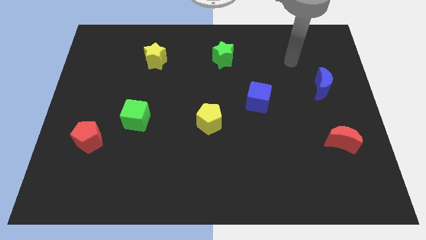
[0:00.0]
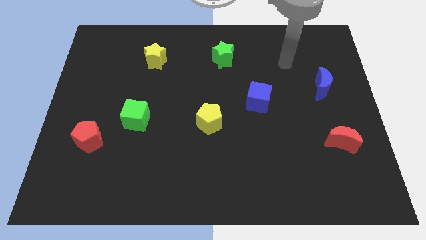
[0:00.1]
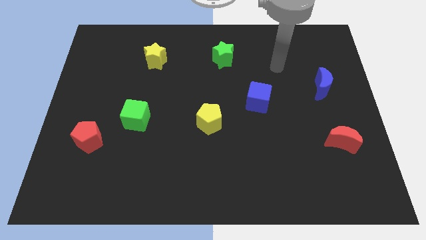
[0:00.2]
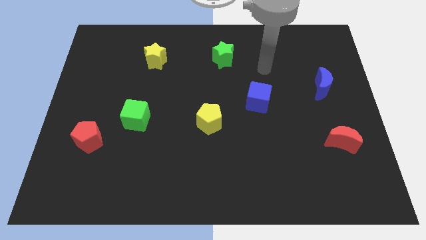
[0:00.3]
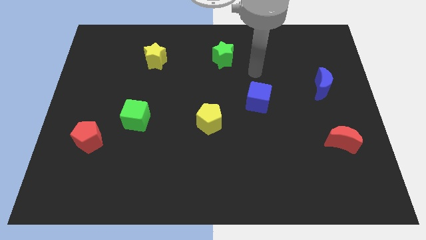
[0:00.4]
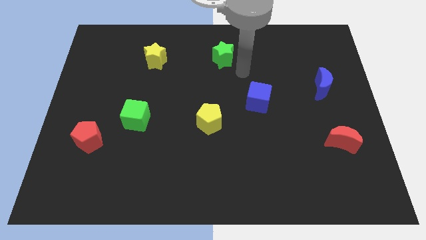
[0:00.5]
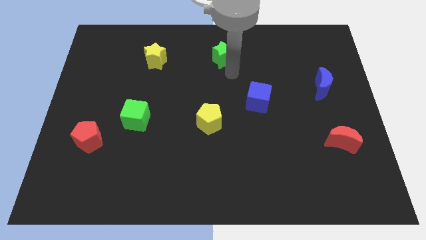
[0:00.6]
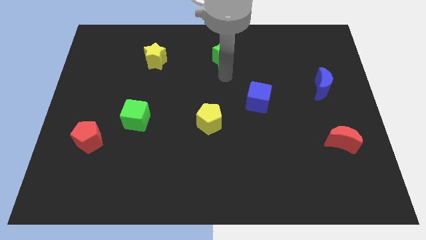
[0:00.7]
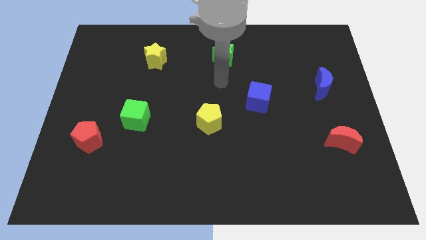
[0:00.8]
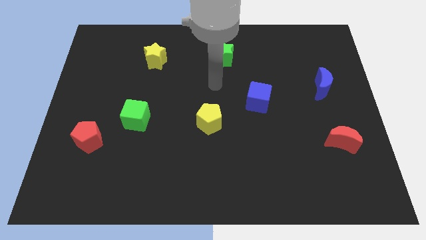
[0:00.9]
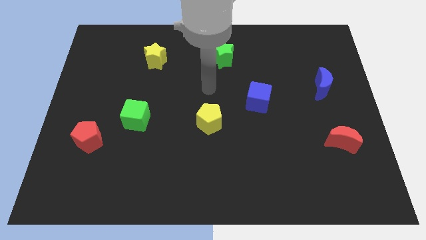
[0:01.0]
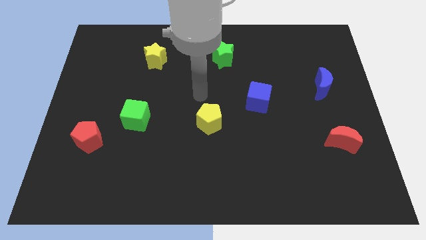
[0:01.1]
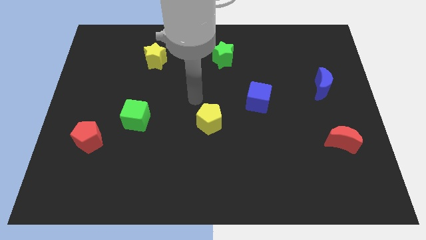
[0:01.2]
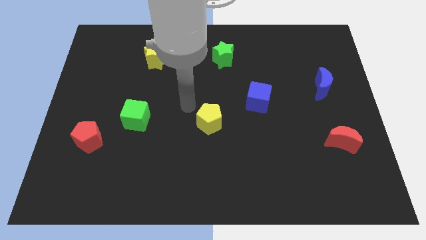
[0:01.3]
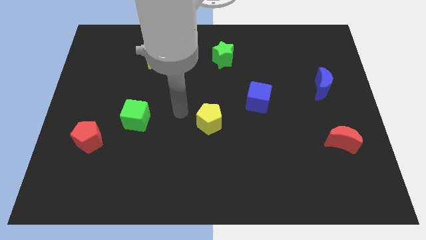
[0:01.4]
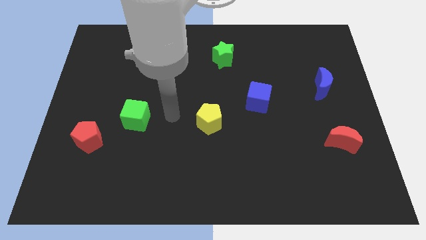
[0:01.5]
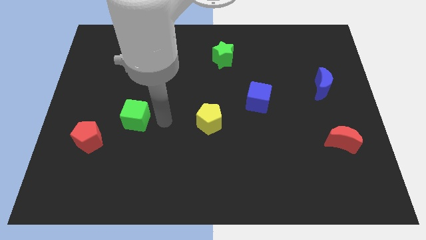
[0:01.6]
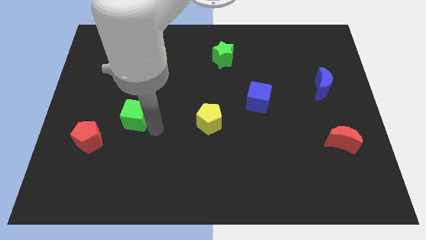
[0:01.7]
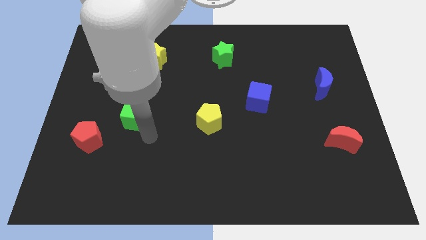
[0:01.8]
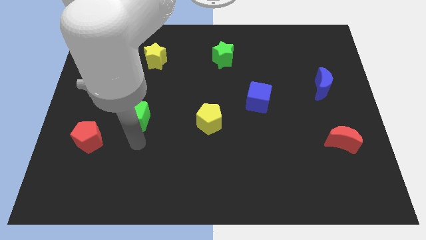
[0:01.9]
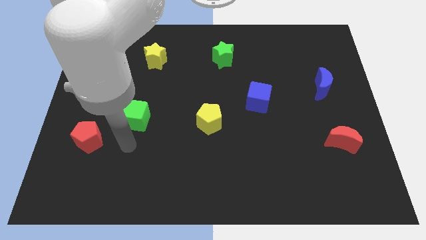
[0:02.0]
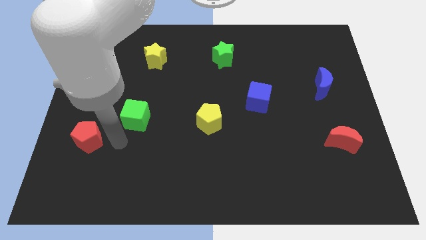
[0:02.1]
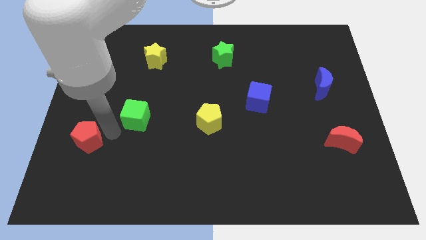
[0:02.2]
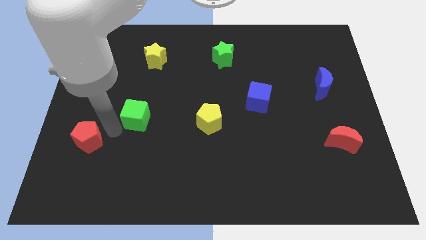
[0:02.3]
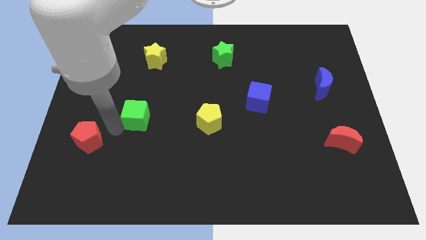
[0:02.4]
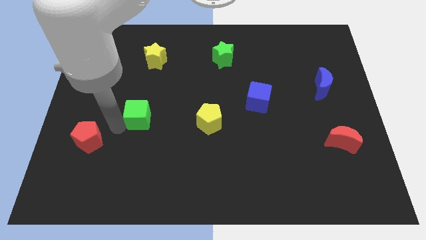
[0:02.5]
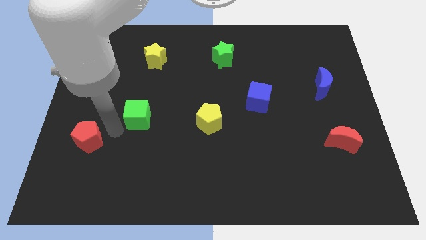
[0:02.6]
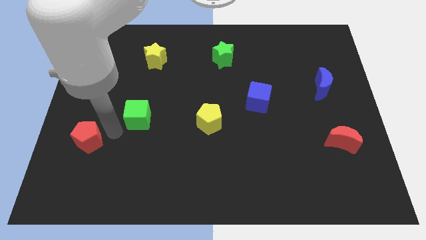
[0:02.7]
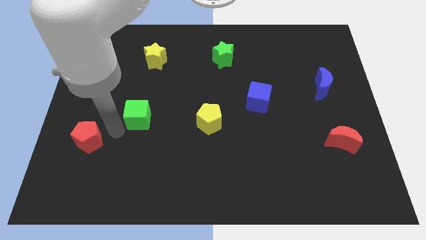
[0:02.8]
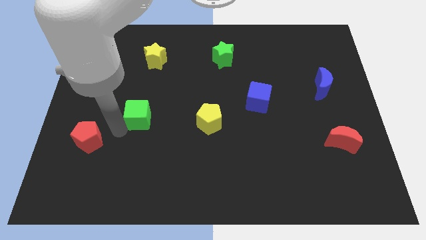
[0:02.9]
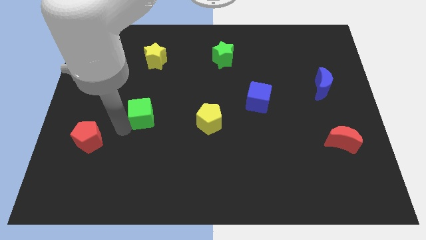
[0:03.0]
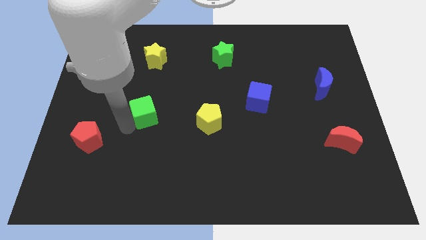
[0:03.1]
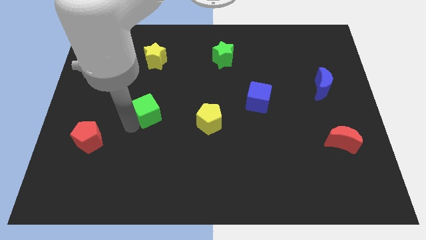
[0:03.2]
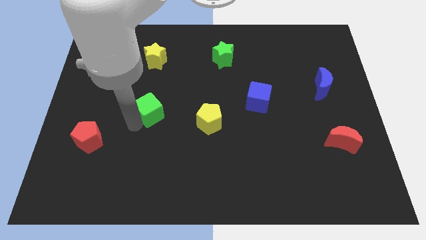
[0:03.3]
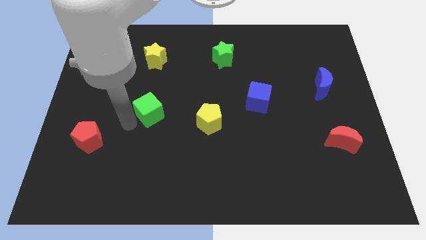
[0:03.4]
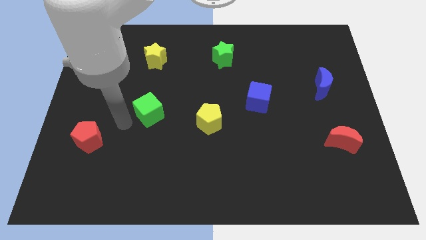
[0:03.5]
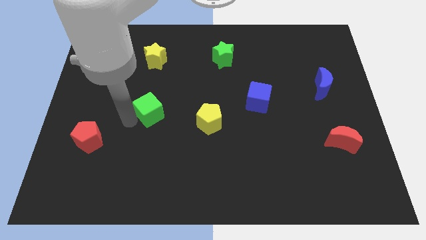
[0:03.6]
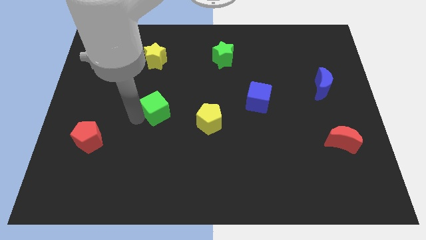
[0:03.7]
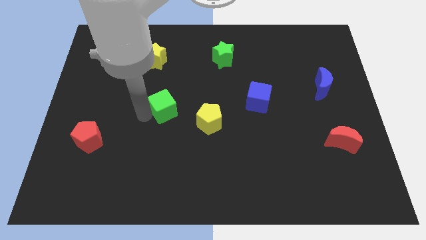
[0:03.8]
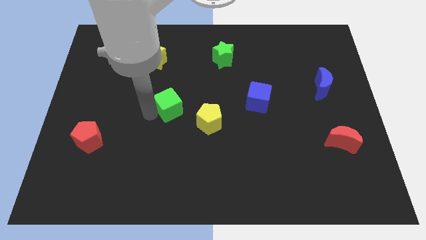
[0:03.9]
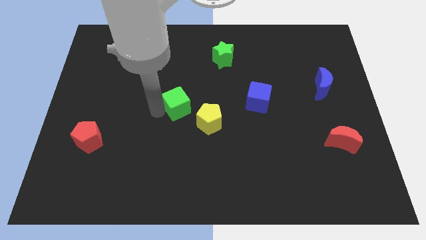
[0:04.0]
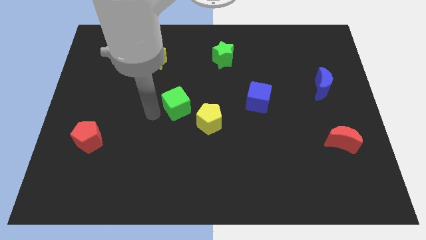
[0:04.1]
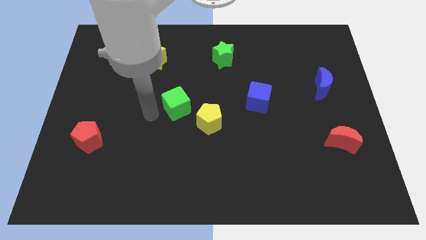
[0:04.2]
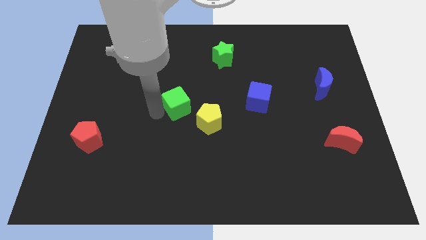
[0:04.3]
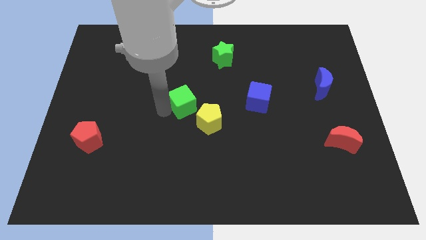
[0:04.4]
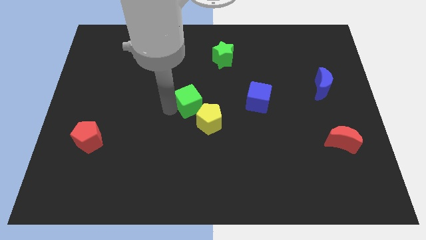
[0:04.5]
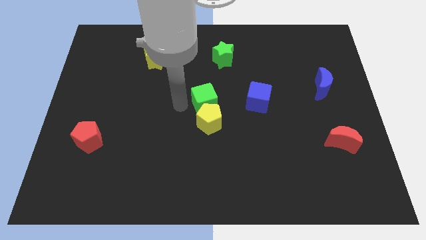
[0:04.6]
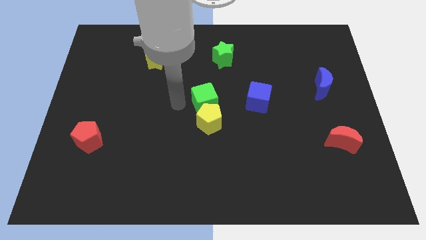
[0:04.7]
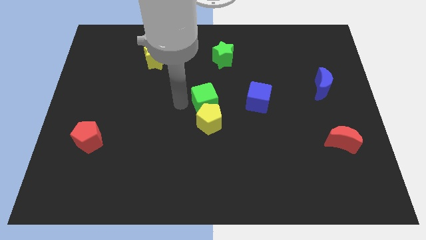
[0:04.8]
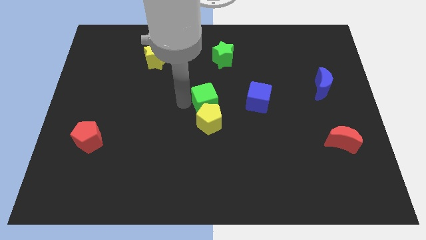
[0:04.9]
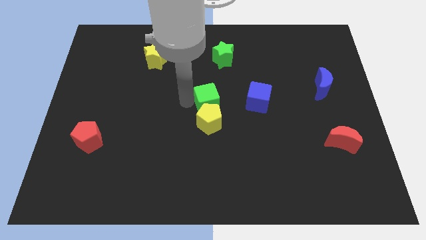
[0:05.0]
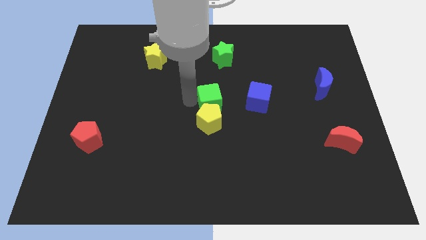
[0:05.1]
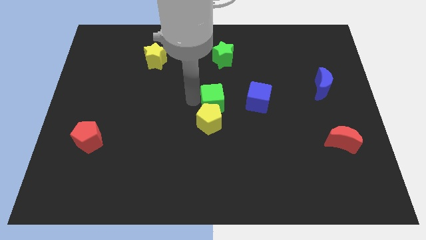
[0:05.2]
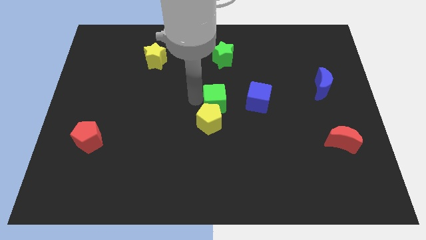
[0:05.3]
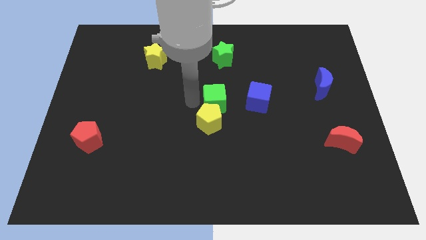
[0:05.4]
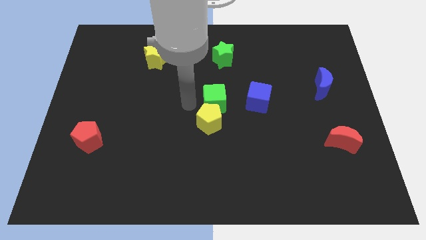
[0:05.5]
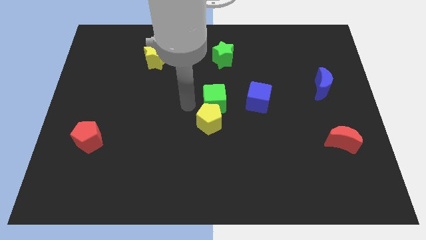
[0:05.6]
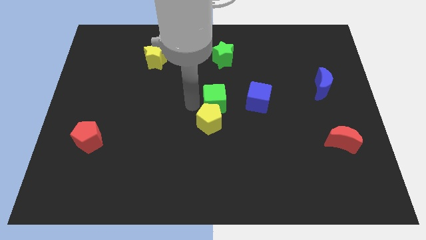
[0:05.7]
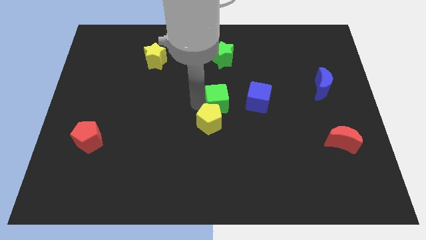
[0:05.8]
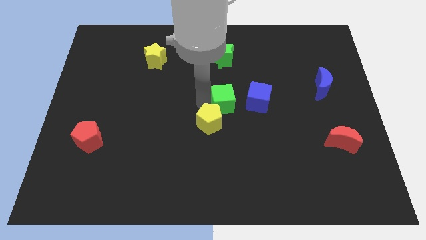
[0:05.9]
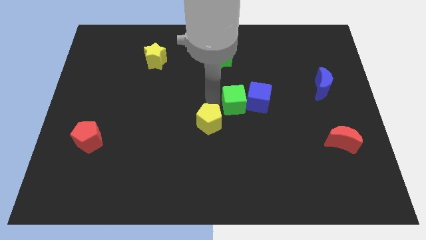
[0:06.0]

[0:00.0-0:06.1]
put the green cube towards the blue cube

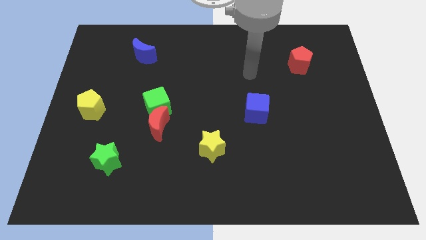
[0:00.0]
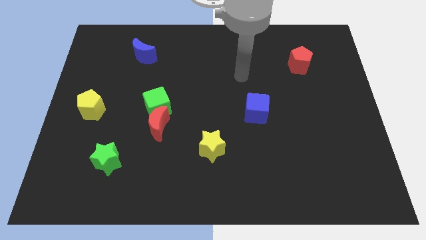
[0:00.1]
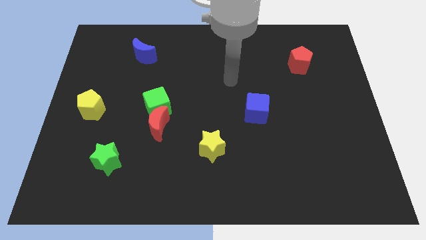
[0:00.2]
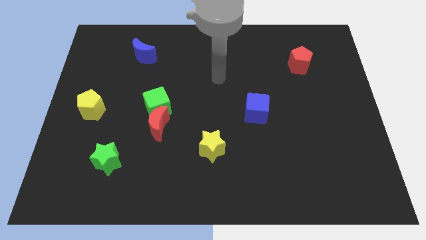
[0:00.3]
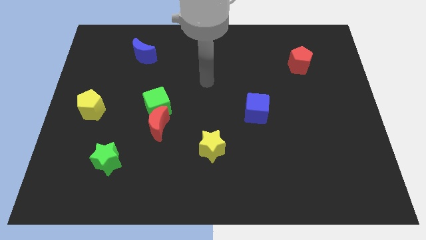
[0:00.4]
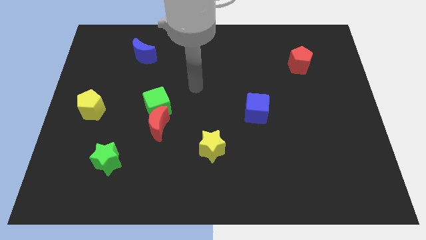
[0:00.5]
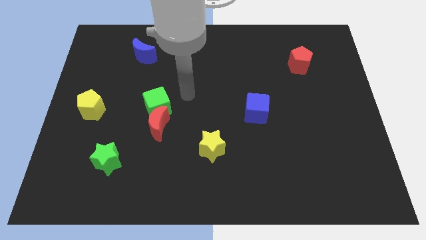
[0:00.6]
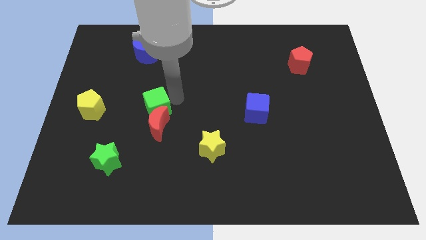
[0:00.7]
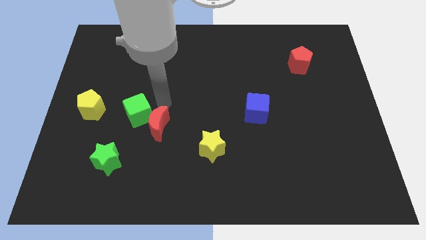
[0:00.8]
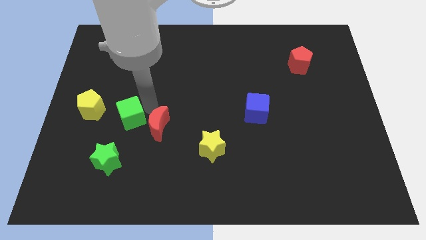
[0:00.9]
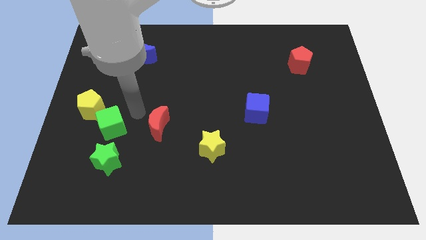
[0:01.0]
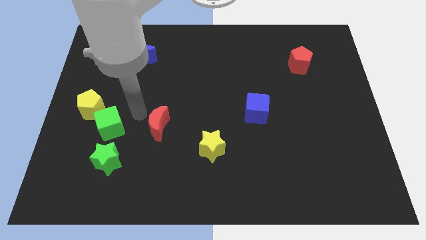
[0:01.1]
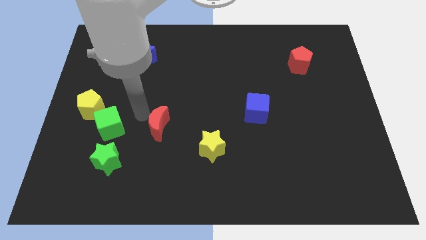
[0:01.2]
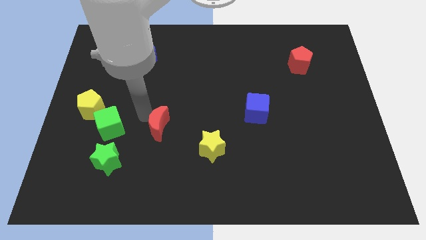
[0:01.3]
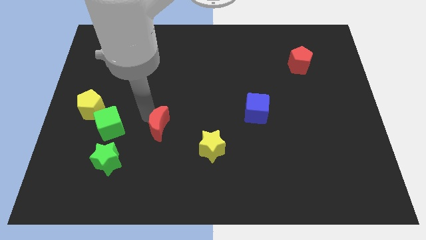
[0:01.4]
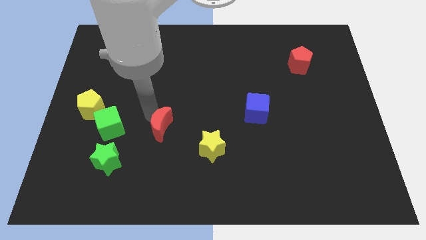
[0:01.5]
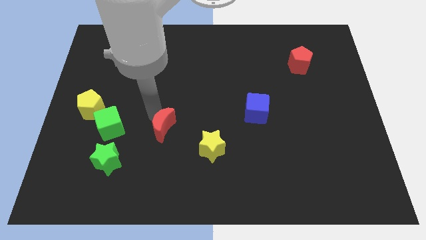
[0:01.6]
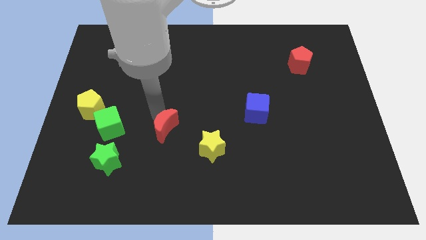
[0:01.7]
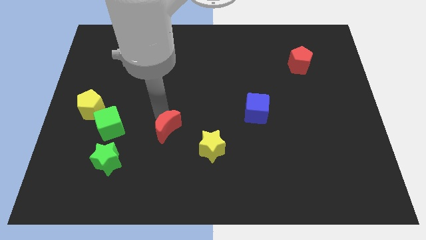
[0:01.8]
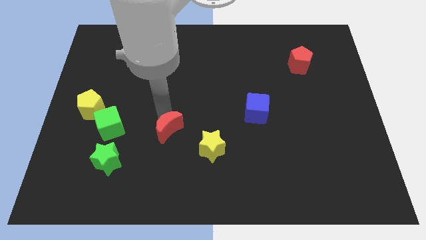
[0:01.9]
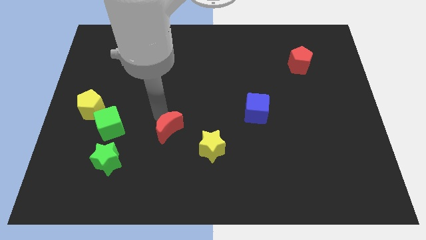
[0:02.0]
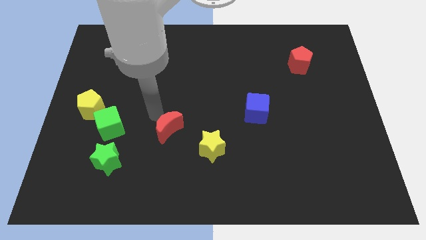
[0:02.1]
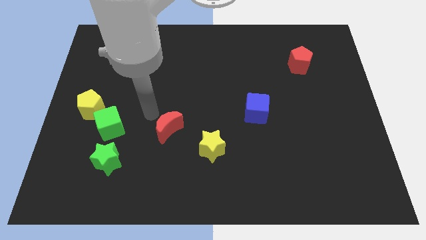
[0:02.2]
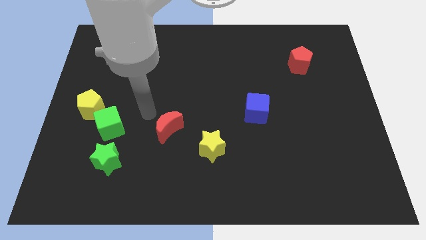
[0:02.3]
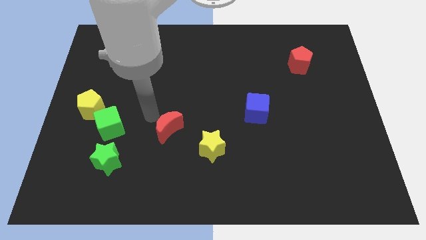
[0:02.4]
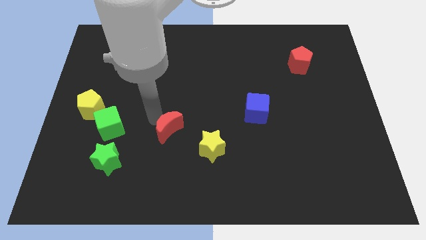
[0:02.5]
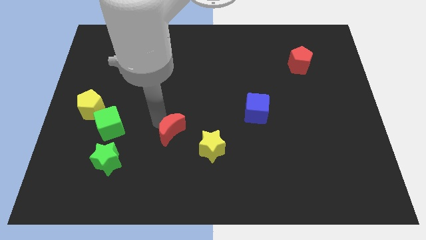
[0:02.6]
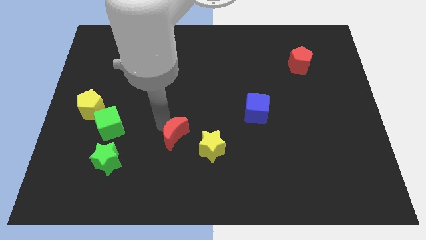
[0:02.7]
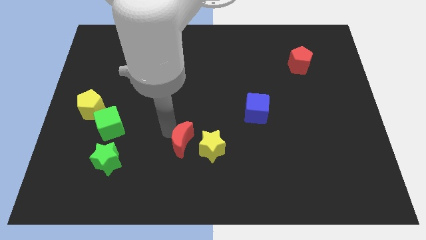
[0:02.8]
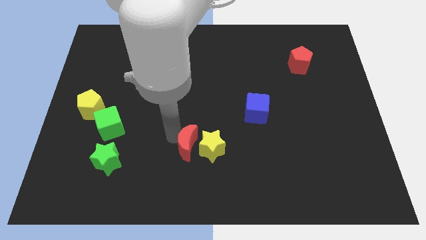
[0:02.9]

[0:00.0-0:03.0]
put the red moon to the yellow star
